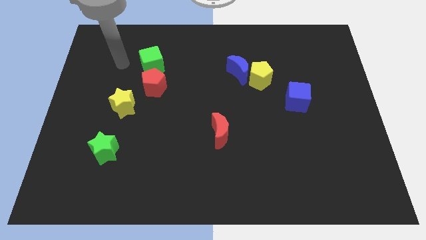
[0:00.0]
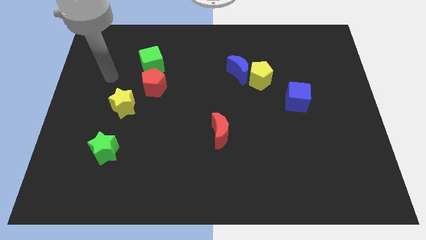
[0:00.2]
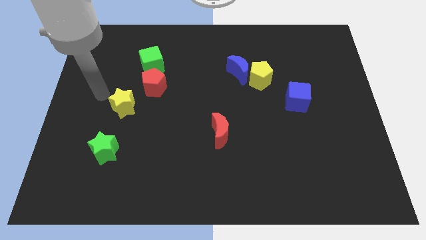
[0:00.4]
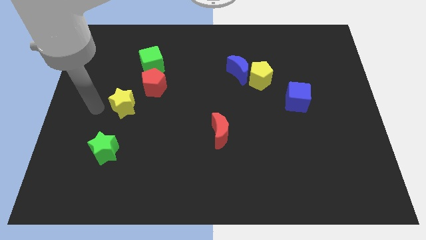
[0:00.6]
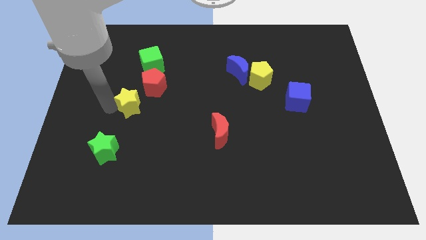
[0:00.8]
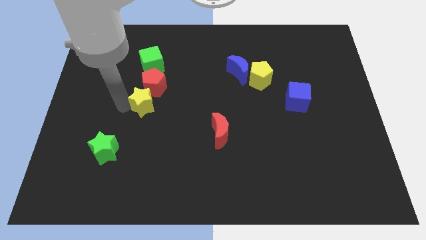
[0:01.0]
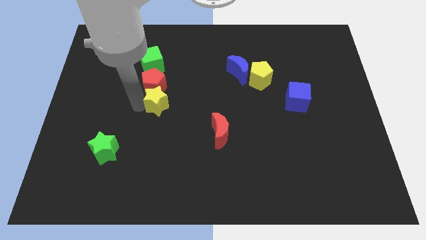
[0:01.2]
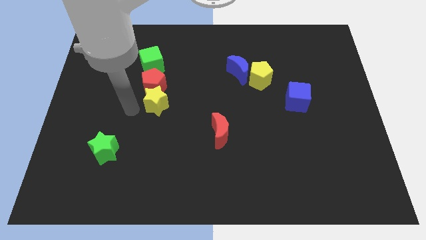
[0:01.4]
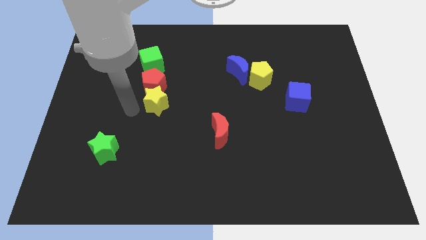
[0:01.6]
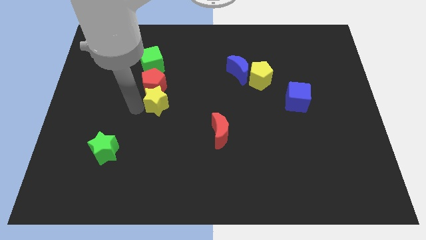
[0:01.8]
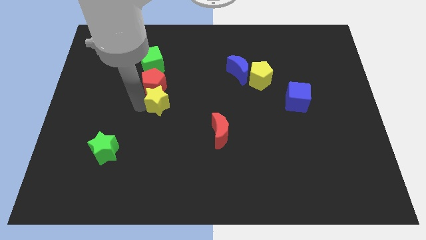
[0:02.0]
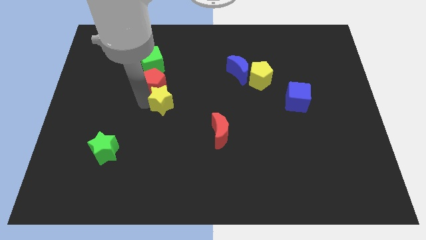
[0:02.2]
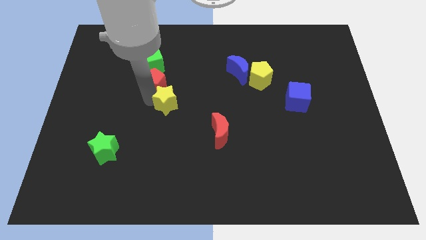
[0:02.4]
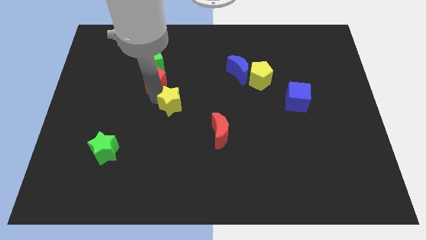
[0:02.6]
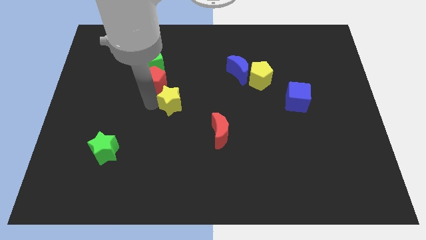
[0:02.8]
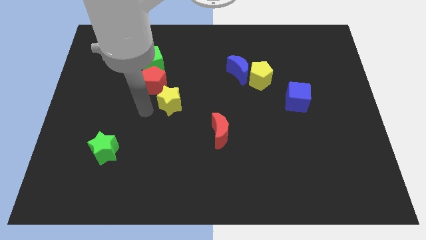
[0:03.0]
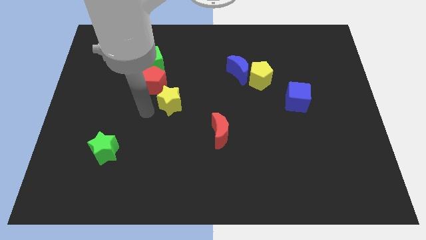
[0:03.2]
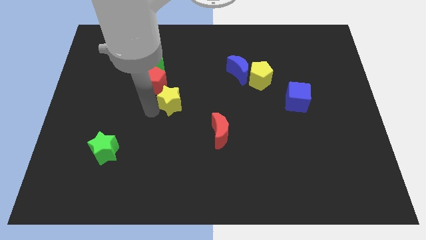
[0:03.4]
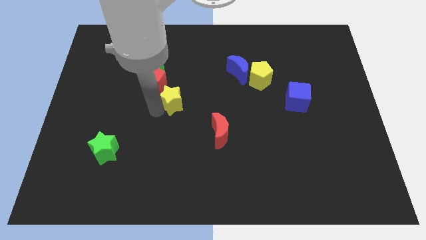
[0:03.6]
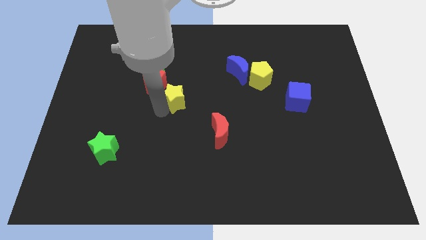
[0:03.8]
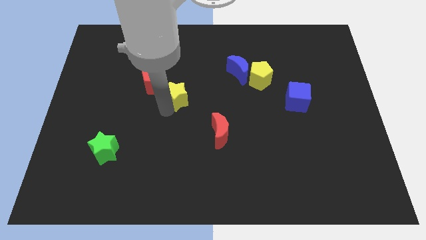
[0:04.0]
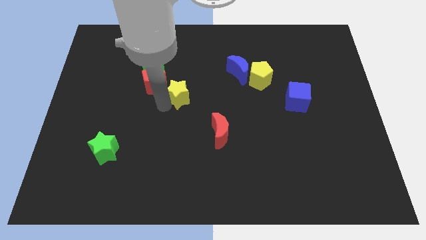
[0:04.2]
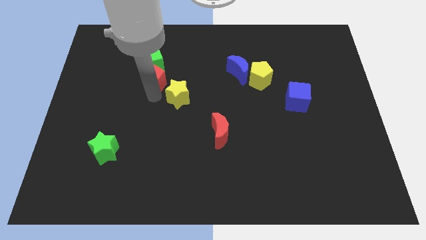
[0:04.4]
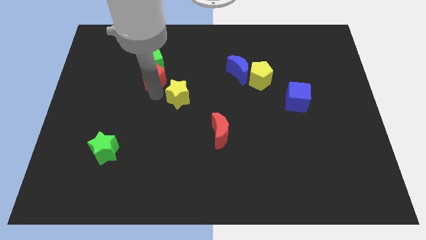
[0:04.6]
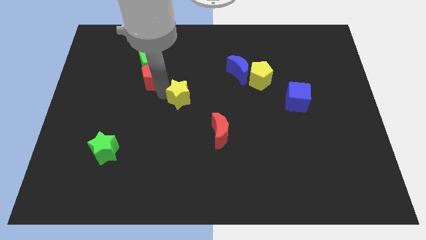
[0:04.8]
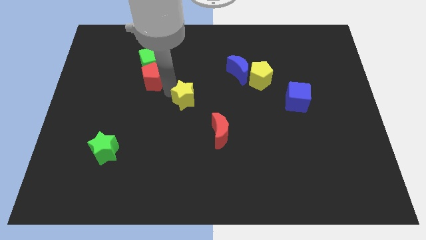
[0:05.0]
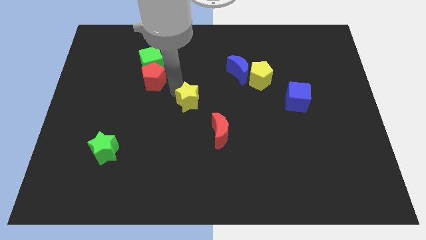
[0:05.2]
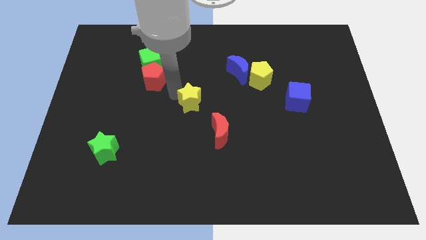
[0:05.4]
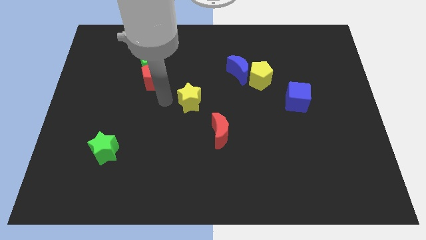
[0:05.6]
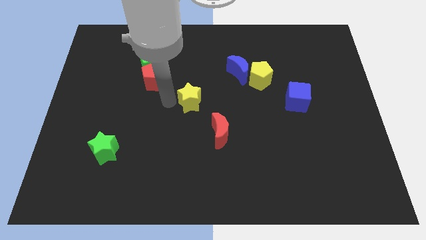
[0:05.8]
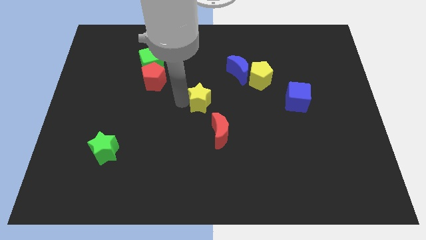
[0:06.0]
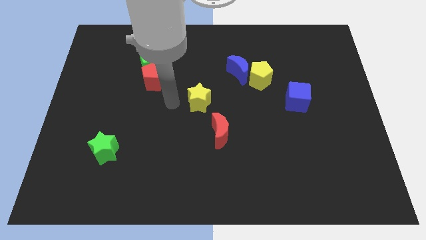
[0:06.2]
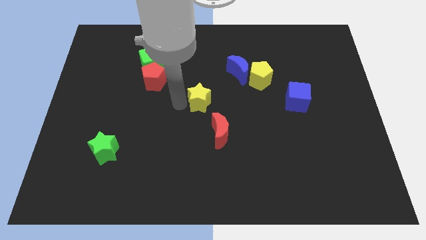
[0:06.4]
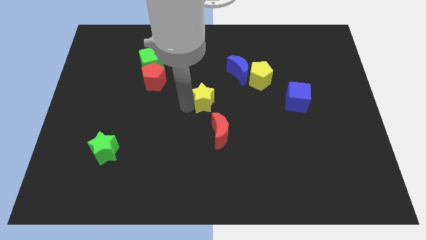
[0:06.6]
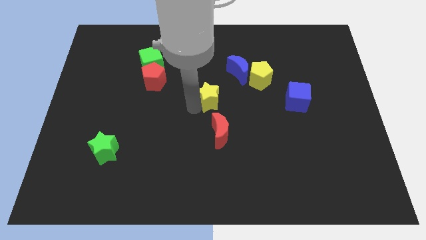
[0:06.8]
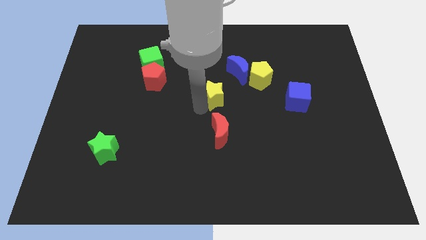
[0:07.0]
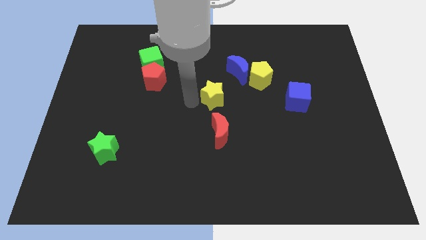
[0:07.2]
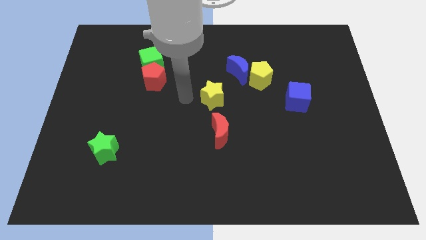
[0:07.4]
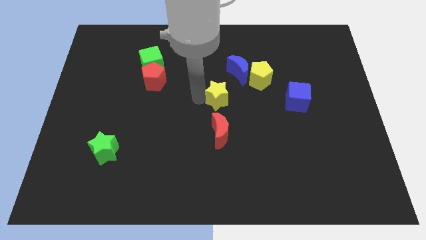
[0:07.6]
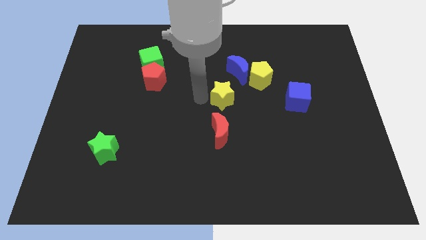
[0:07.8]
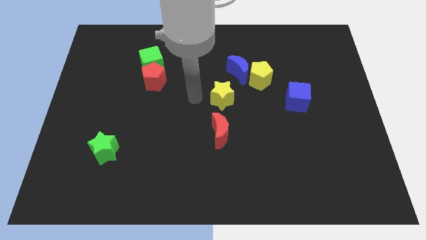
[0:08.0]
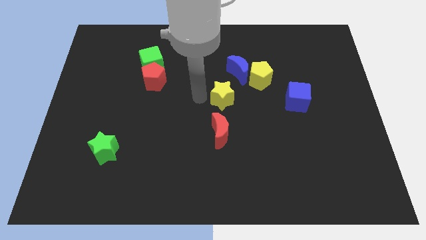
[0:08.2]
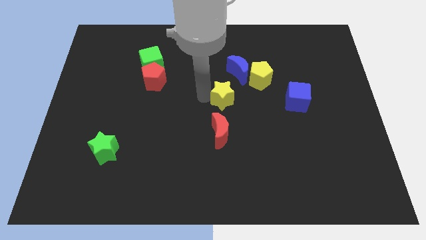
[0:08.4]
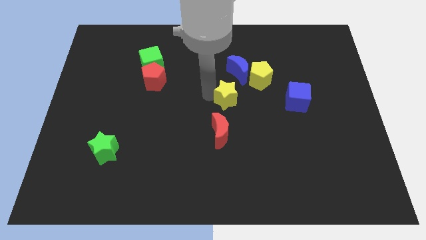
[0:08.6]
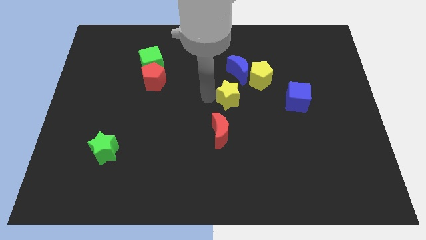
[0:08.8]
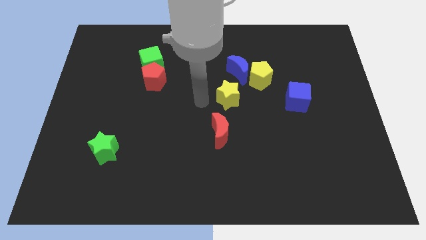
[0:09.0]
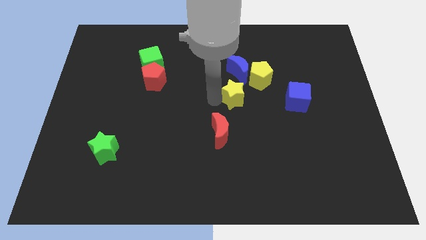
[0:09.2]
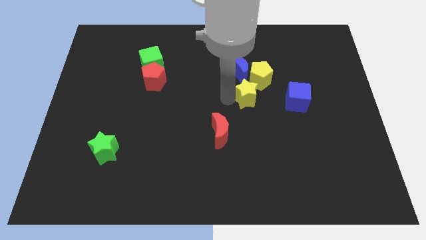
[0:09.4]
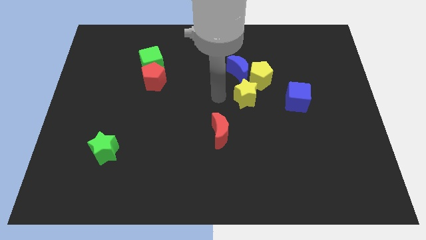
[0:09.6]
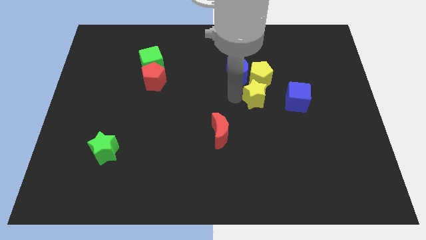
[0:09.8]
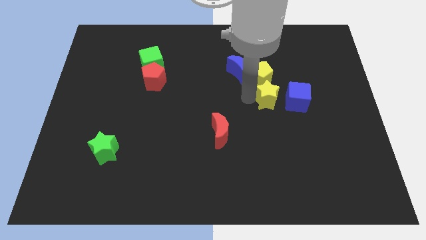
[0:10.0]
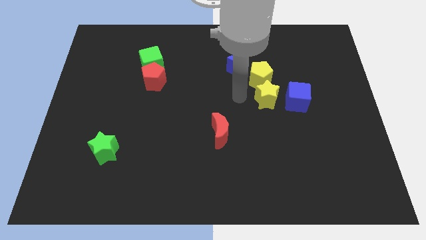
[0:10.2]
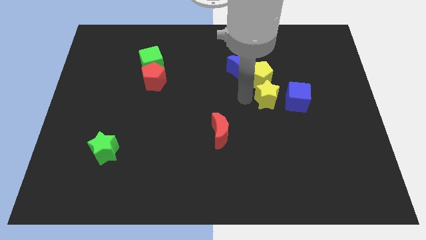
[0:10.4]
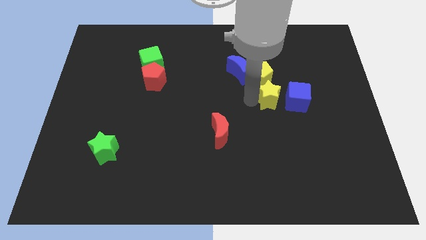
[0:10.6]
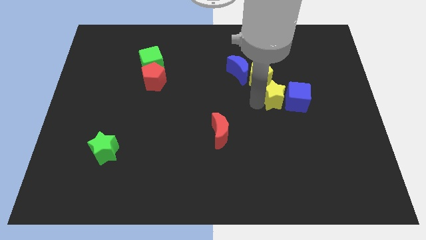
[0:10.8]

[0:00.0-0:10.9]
put the yellow star to the blue cube

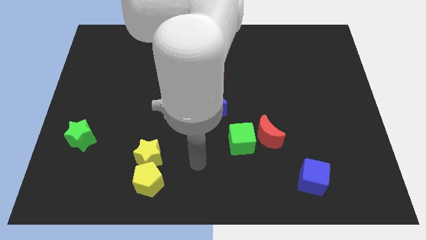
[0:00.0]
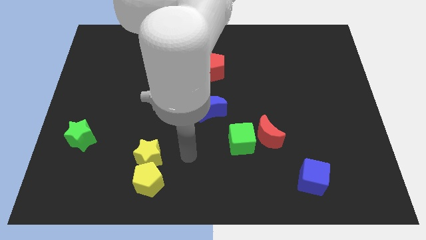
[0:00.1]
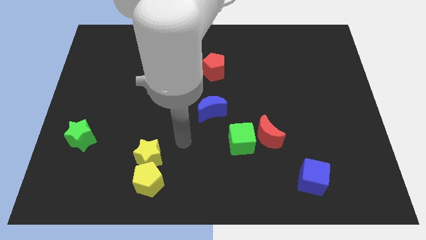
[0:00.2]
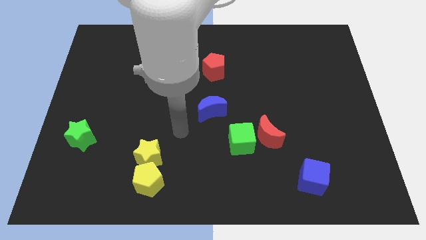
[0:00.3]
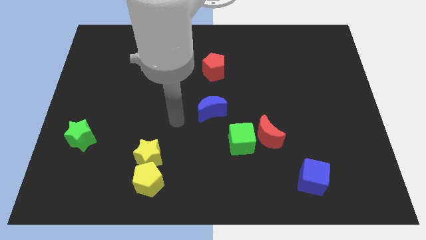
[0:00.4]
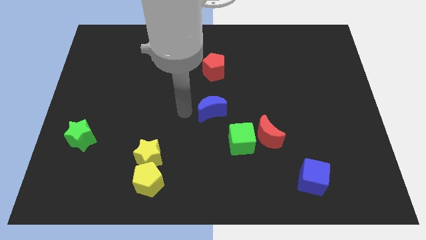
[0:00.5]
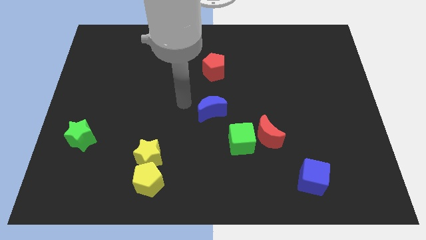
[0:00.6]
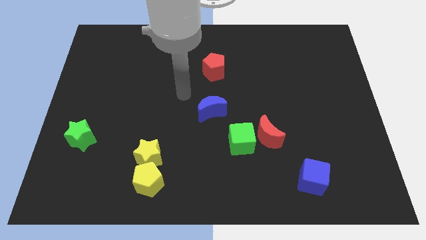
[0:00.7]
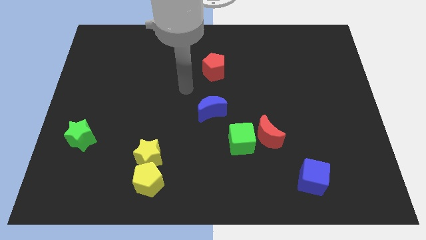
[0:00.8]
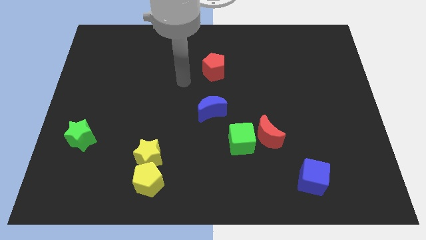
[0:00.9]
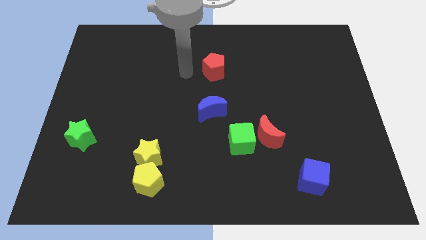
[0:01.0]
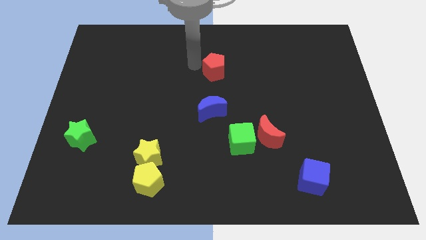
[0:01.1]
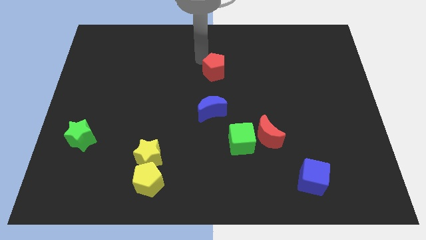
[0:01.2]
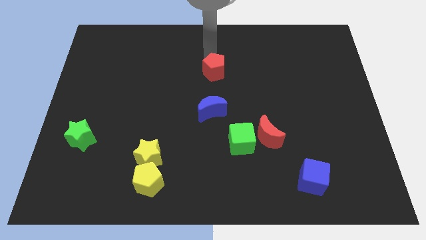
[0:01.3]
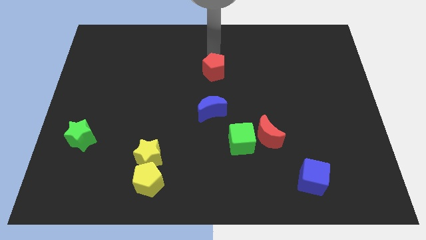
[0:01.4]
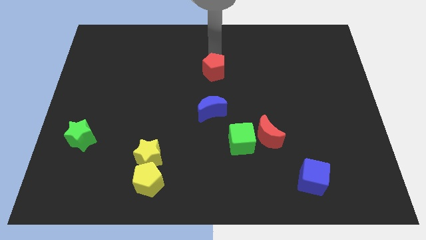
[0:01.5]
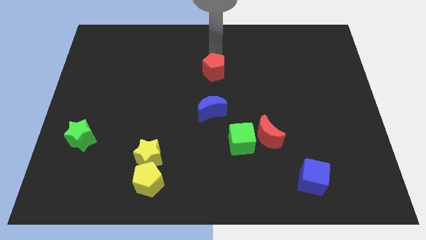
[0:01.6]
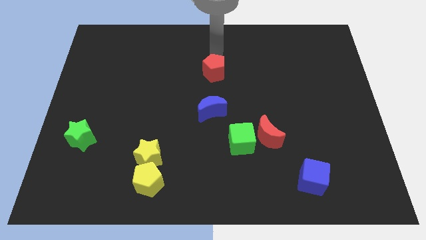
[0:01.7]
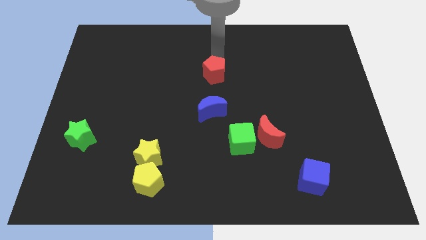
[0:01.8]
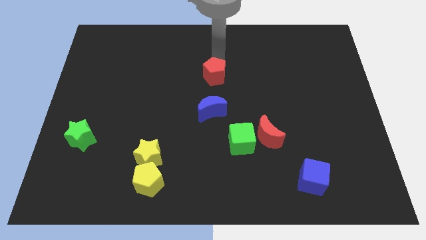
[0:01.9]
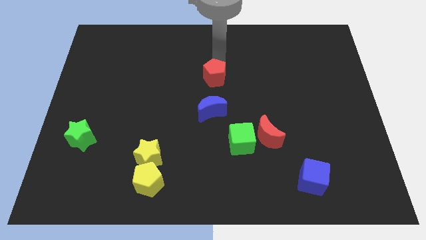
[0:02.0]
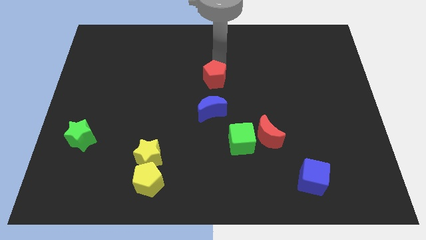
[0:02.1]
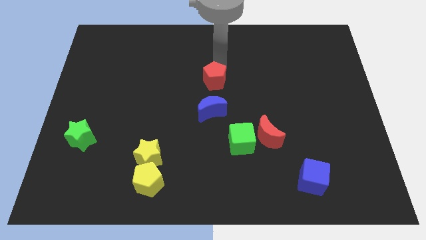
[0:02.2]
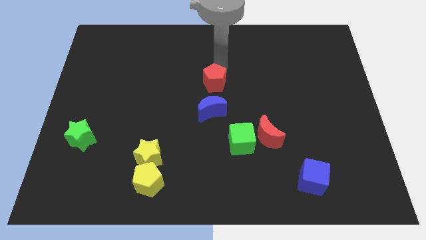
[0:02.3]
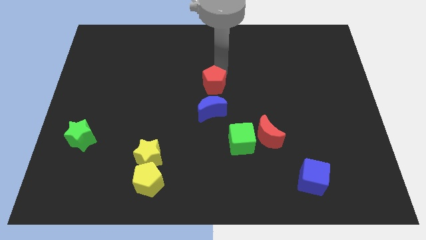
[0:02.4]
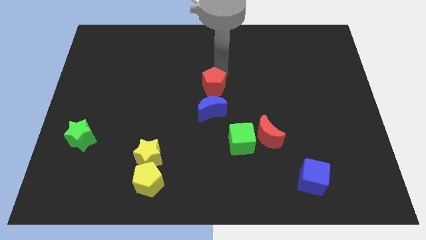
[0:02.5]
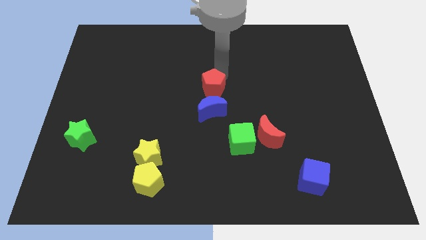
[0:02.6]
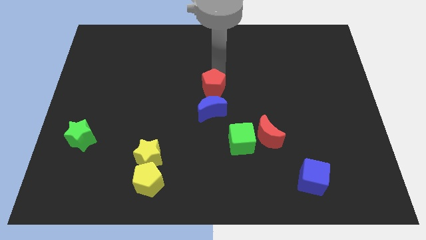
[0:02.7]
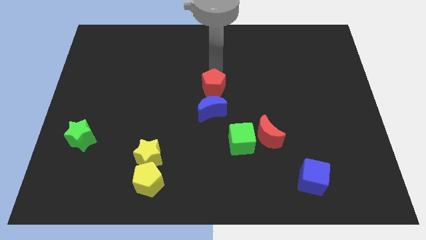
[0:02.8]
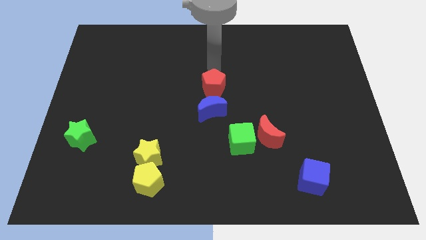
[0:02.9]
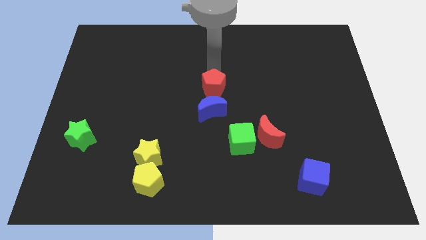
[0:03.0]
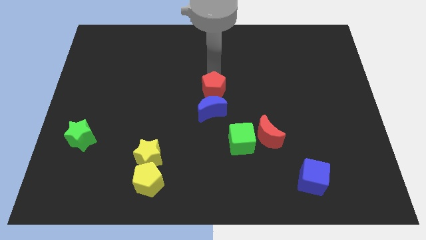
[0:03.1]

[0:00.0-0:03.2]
push the red pentagon to the blue moon
